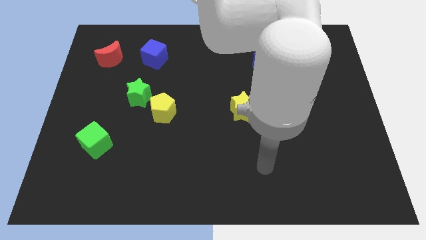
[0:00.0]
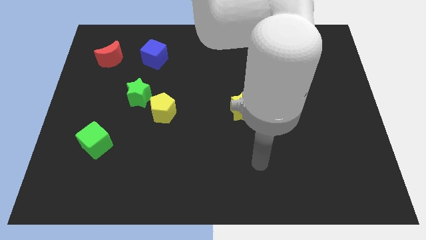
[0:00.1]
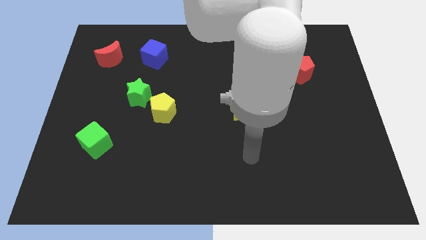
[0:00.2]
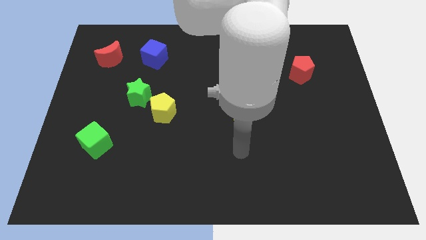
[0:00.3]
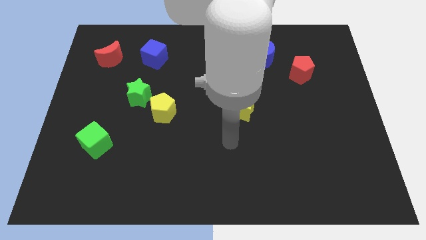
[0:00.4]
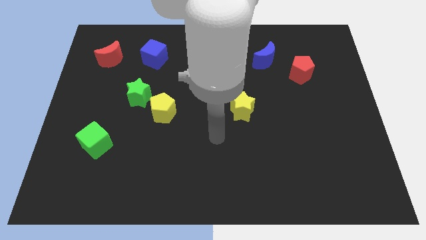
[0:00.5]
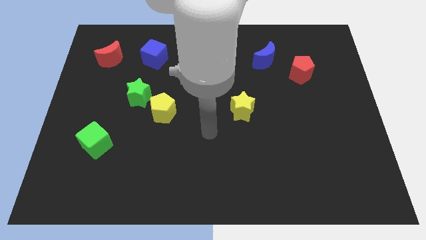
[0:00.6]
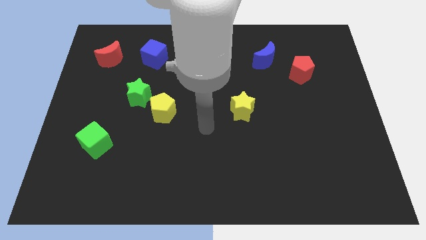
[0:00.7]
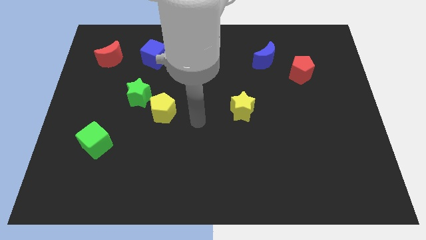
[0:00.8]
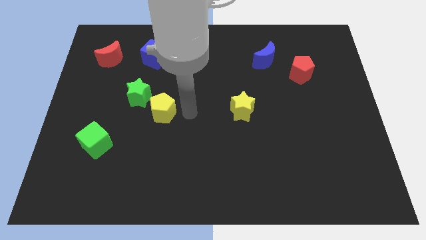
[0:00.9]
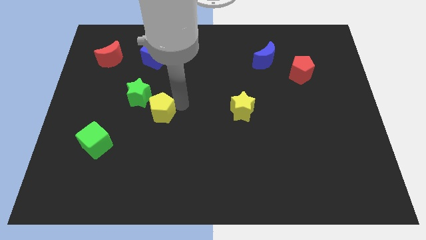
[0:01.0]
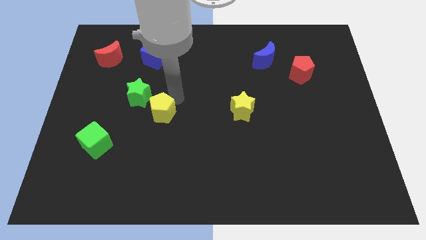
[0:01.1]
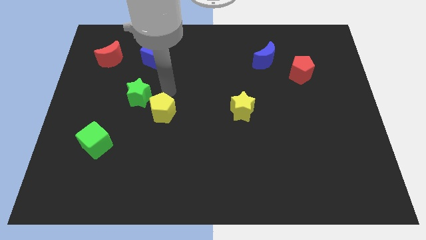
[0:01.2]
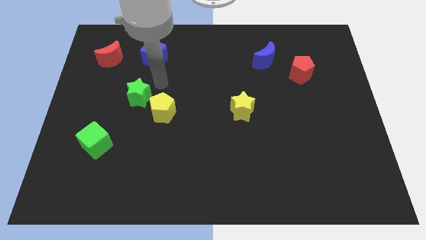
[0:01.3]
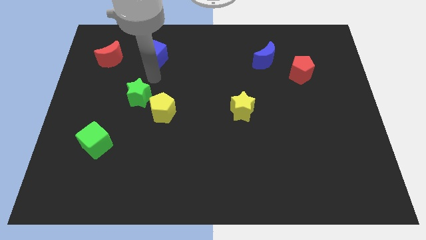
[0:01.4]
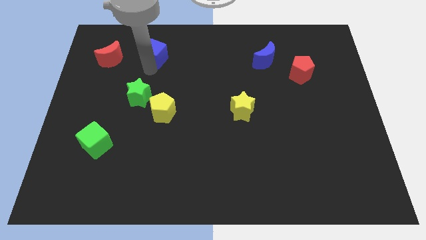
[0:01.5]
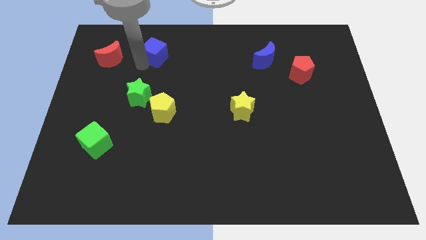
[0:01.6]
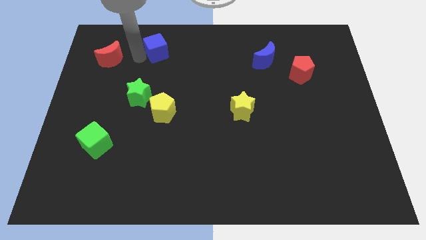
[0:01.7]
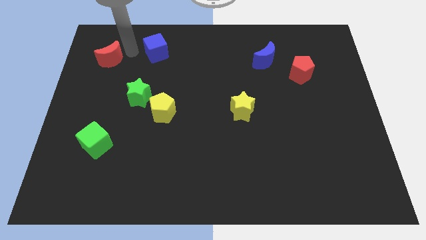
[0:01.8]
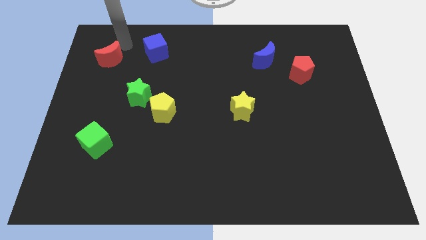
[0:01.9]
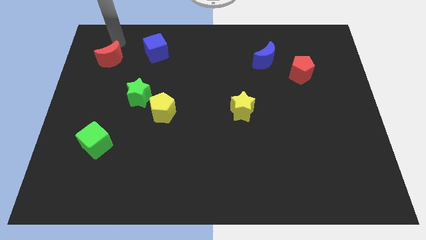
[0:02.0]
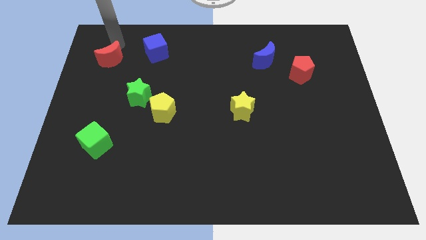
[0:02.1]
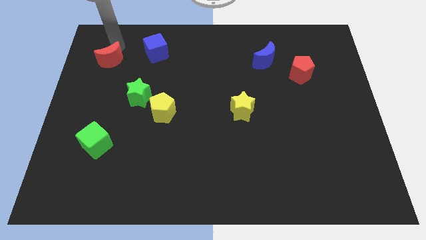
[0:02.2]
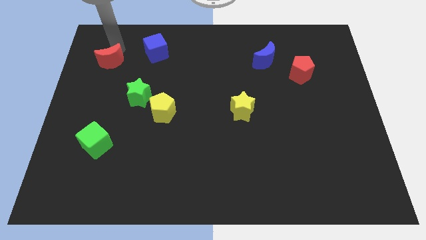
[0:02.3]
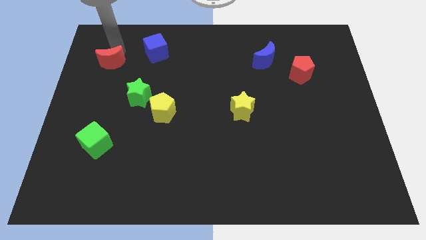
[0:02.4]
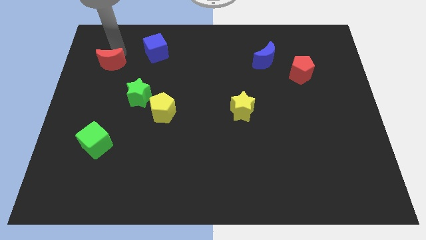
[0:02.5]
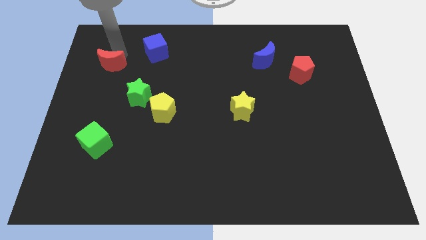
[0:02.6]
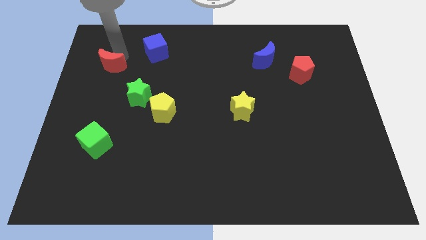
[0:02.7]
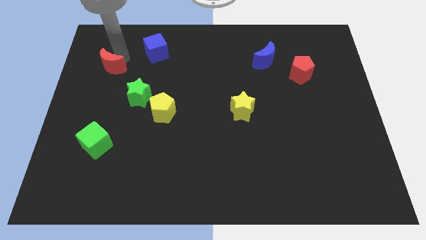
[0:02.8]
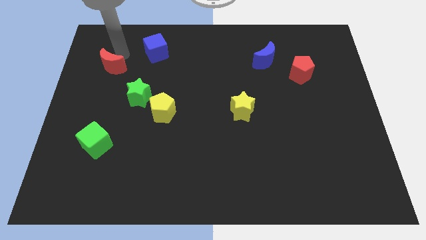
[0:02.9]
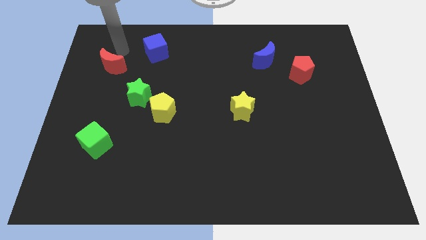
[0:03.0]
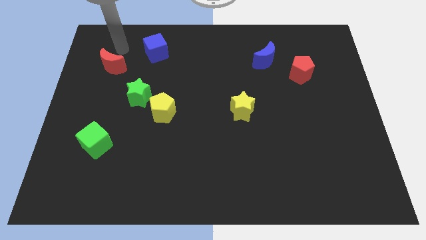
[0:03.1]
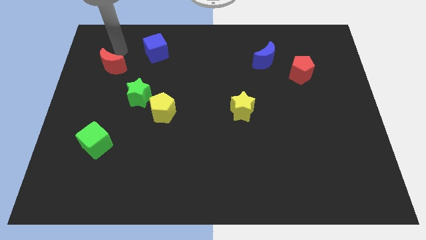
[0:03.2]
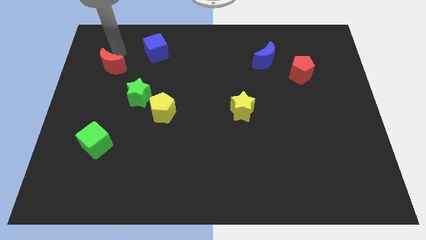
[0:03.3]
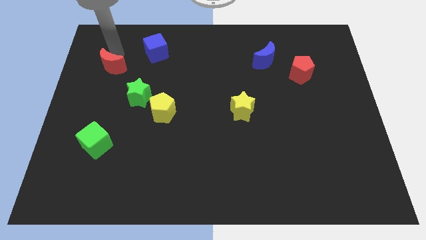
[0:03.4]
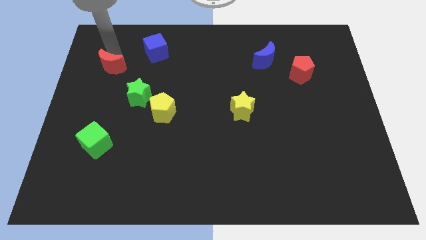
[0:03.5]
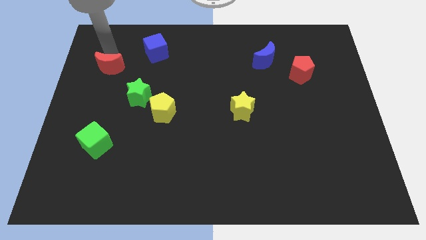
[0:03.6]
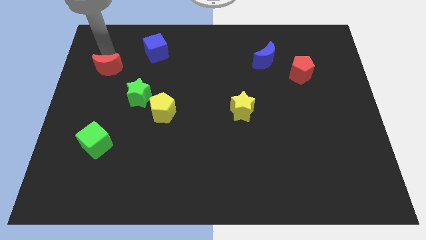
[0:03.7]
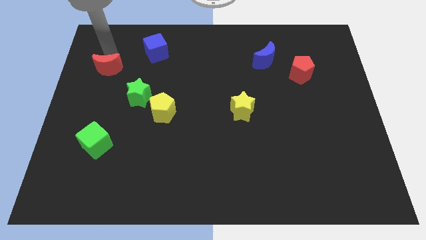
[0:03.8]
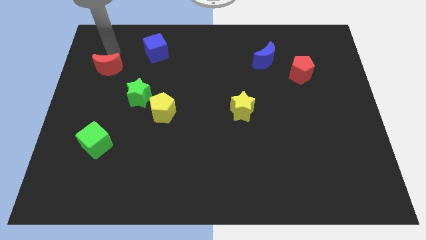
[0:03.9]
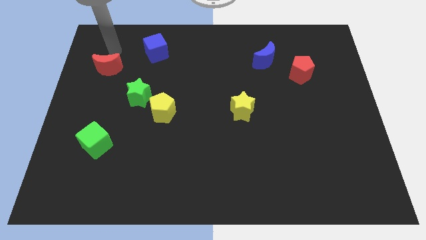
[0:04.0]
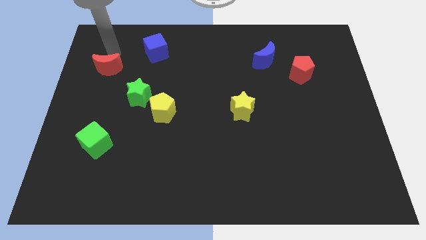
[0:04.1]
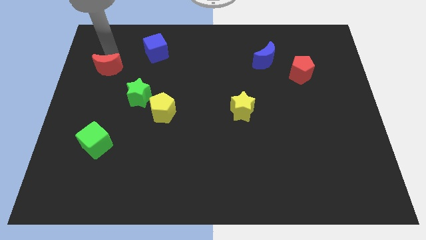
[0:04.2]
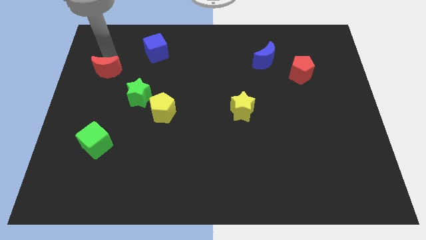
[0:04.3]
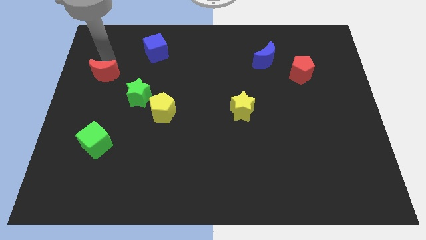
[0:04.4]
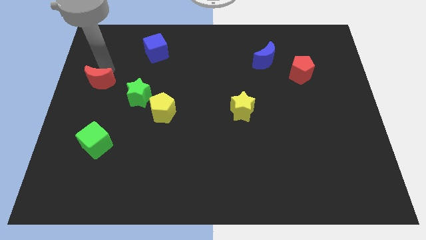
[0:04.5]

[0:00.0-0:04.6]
move the red moon a little down

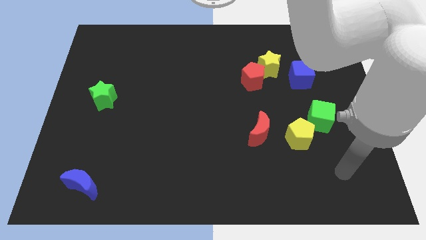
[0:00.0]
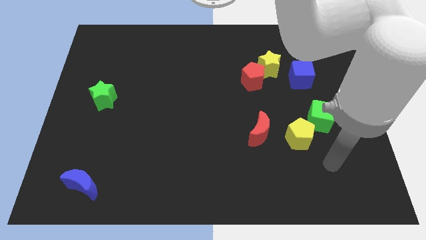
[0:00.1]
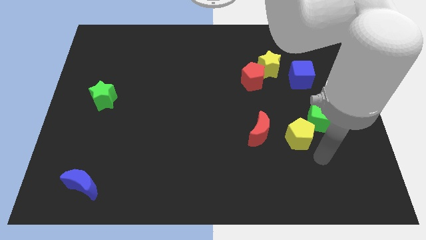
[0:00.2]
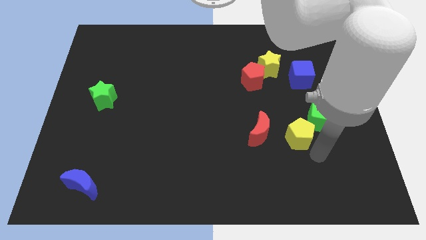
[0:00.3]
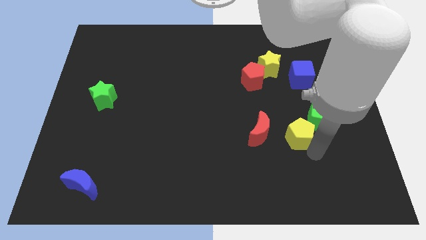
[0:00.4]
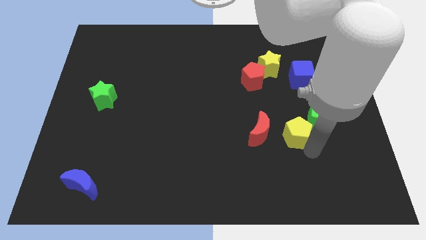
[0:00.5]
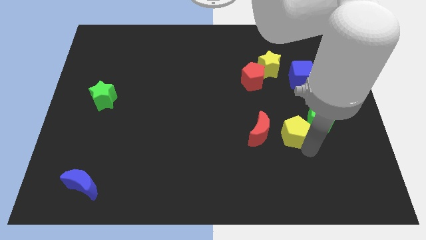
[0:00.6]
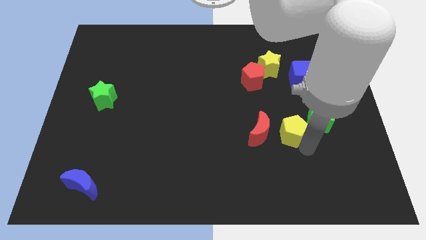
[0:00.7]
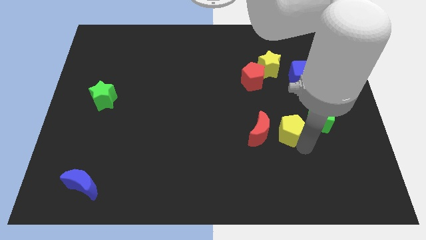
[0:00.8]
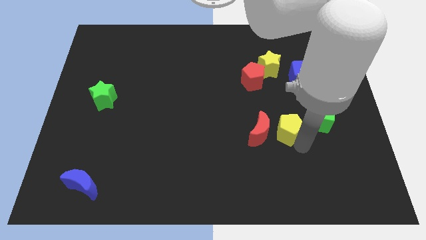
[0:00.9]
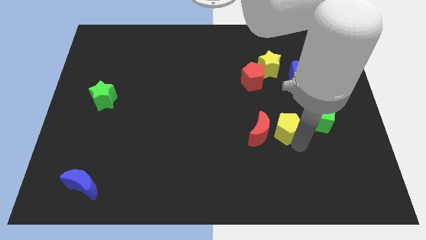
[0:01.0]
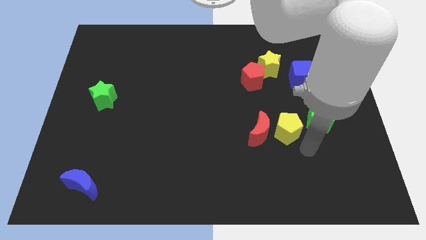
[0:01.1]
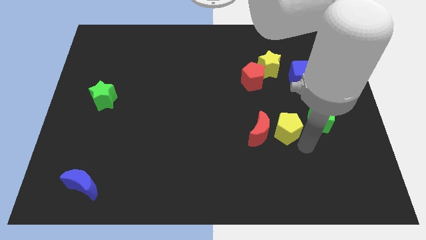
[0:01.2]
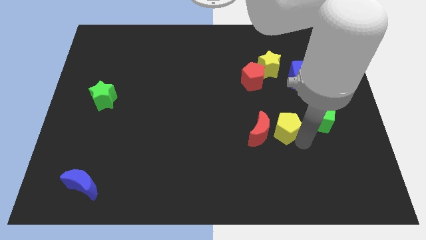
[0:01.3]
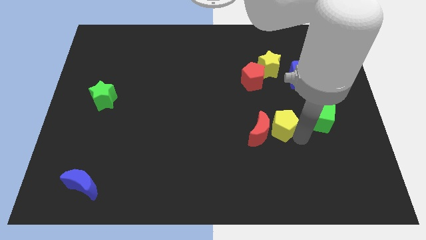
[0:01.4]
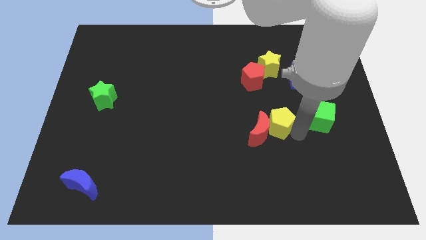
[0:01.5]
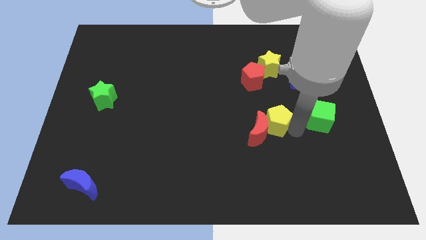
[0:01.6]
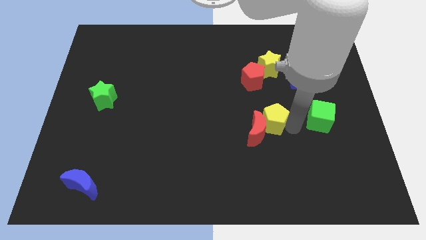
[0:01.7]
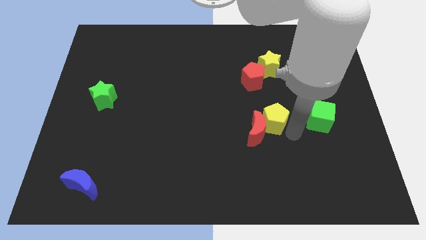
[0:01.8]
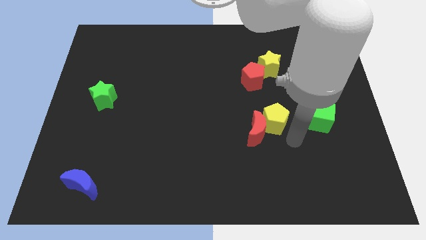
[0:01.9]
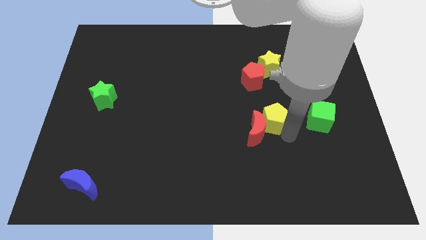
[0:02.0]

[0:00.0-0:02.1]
move the yellow pentagon up and to the left a little bit

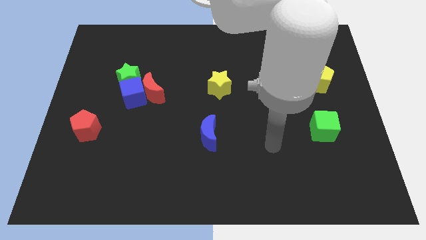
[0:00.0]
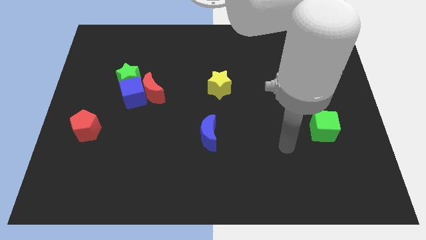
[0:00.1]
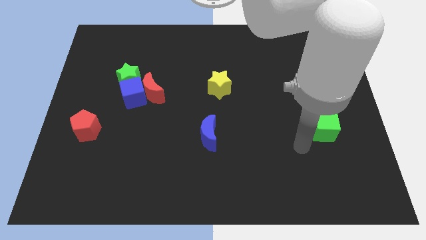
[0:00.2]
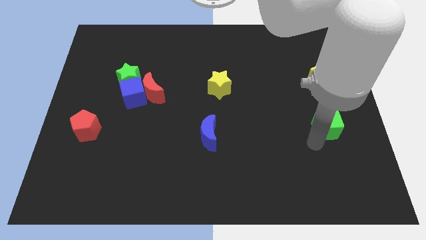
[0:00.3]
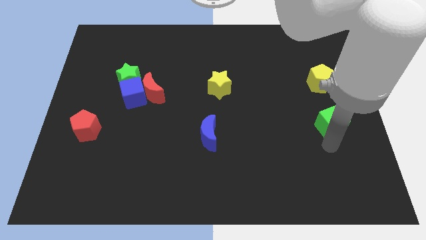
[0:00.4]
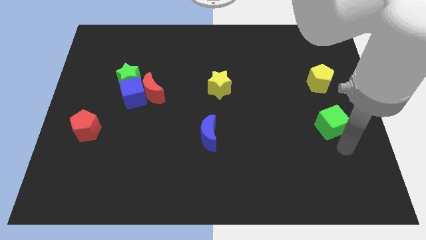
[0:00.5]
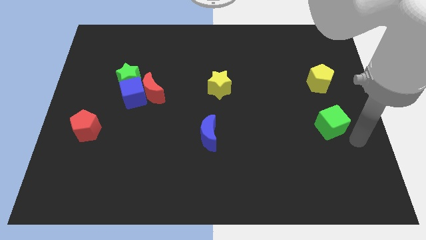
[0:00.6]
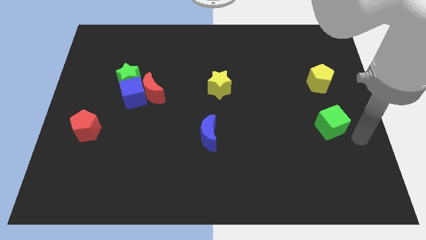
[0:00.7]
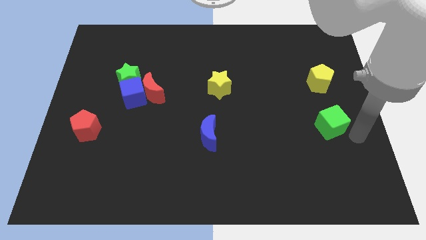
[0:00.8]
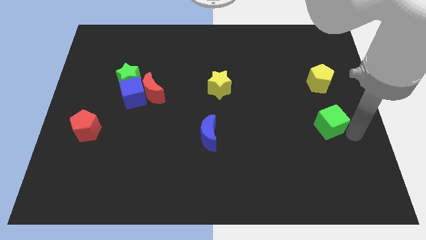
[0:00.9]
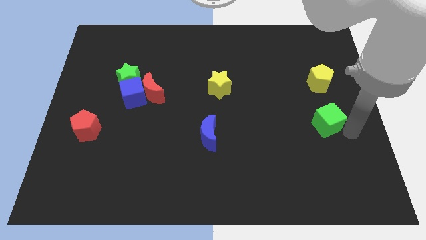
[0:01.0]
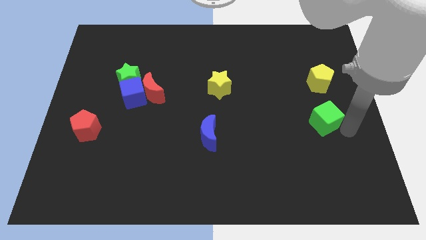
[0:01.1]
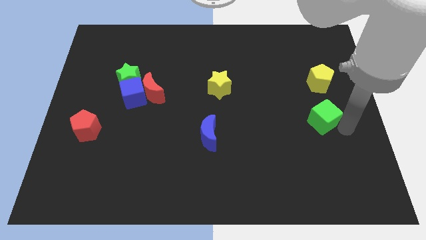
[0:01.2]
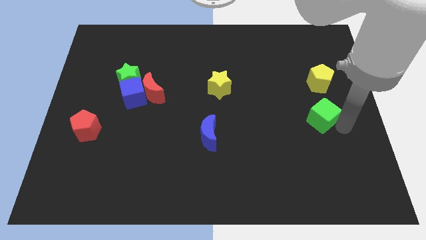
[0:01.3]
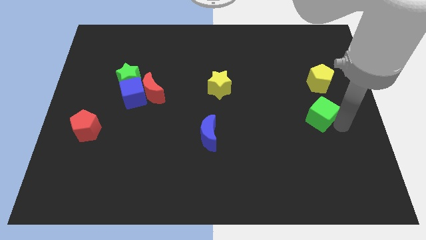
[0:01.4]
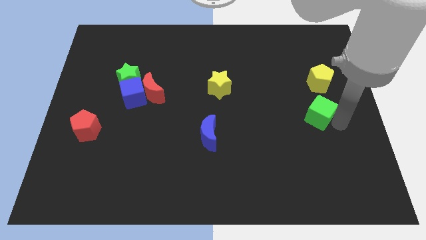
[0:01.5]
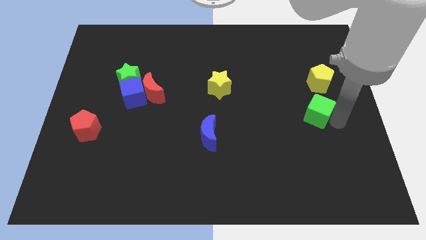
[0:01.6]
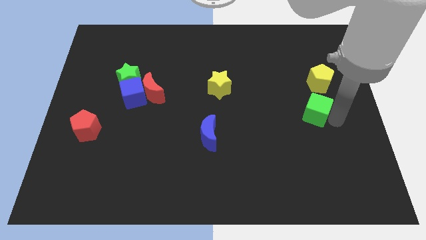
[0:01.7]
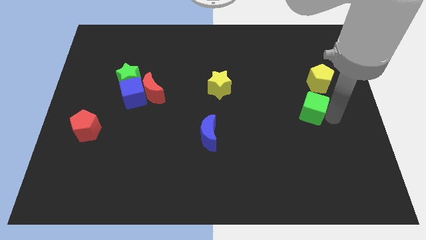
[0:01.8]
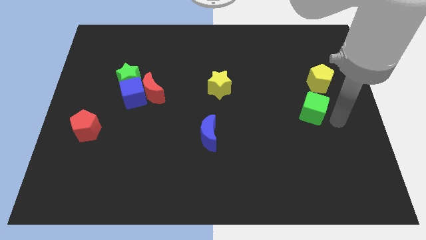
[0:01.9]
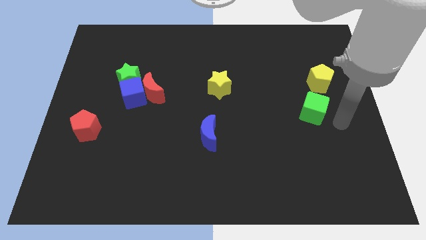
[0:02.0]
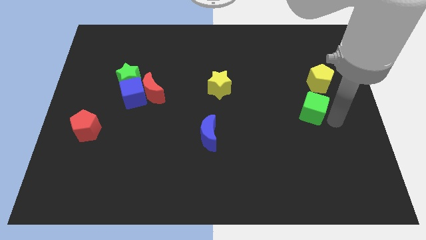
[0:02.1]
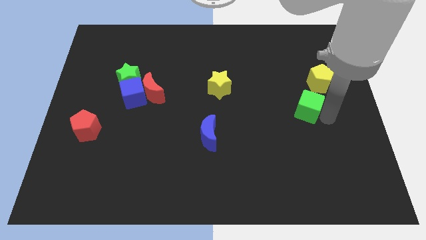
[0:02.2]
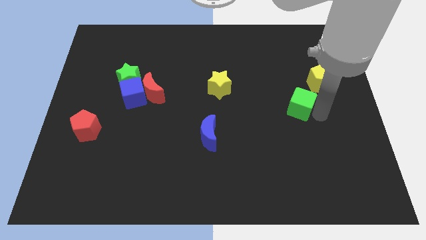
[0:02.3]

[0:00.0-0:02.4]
slide the green cube upwards and left diagonally somewhat
